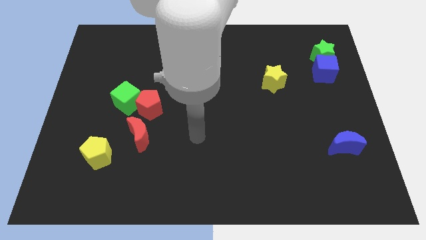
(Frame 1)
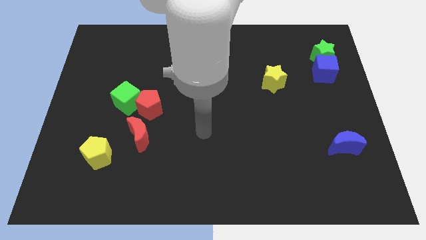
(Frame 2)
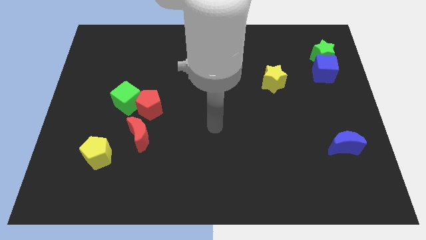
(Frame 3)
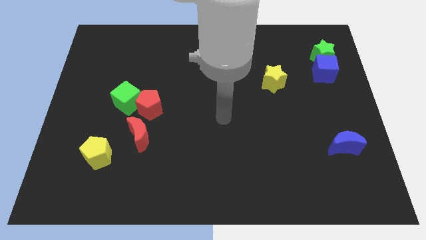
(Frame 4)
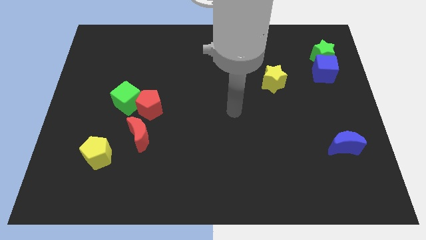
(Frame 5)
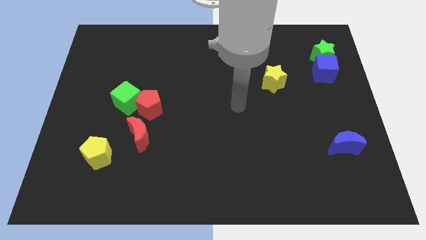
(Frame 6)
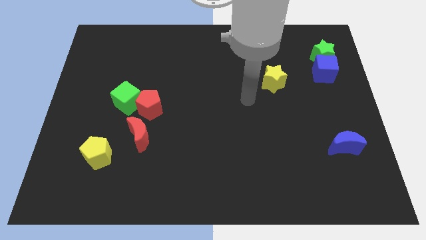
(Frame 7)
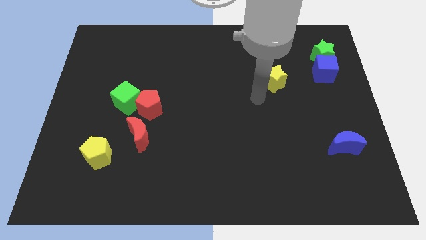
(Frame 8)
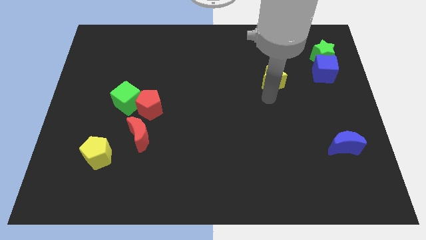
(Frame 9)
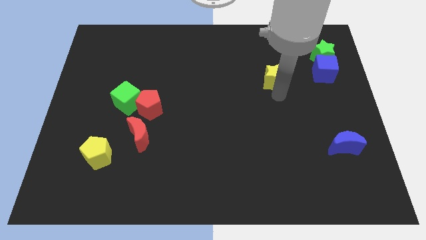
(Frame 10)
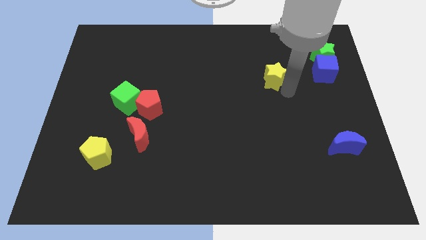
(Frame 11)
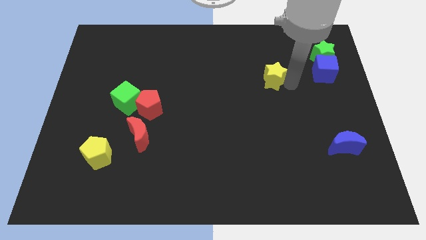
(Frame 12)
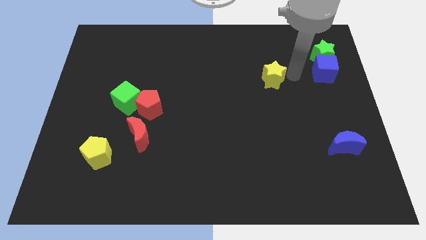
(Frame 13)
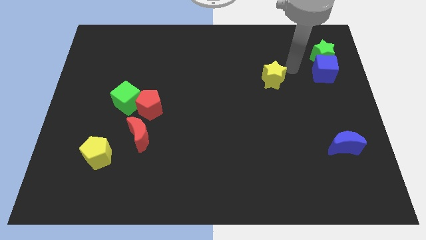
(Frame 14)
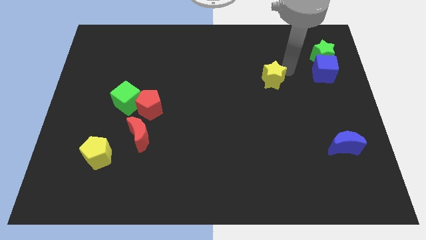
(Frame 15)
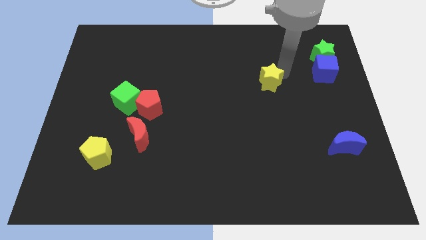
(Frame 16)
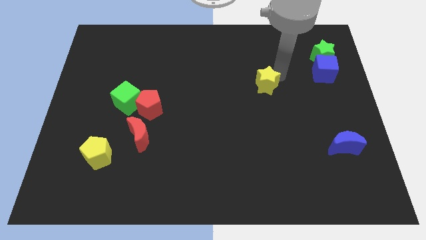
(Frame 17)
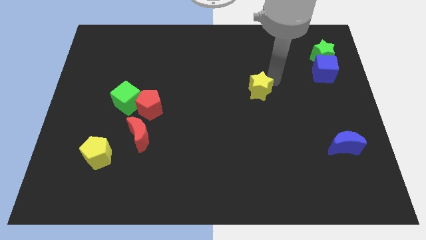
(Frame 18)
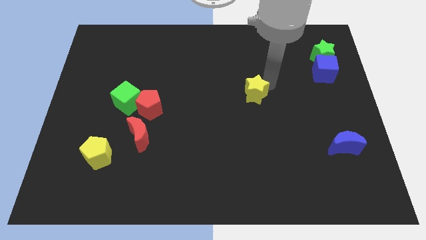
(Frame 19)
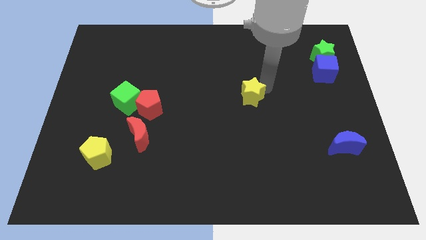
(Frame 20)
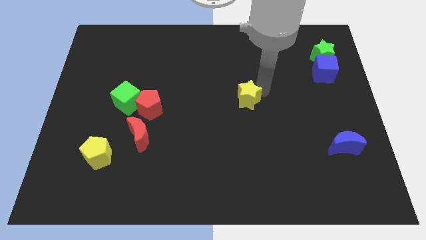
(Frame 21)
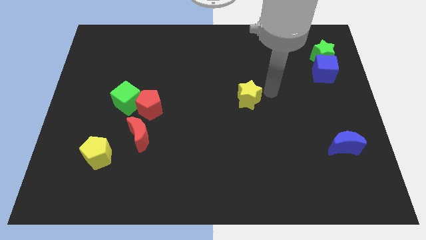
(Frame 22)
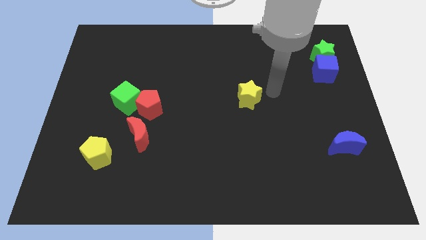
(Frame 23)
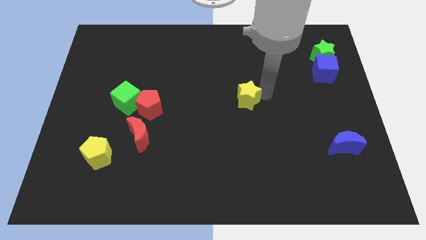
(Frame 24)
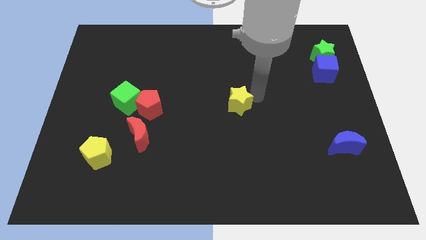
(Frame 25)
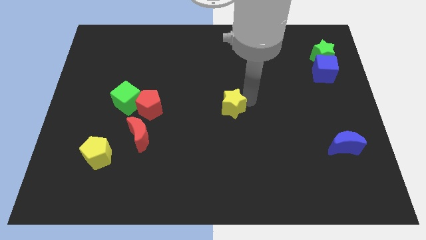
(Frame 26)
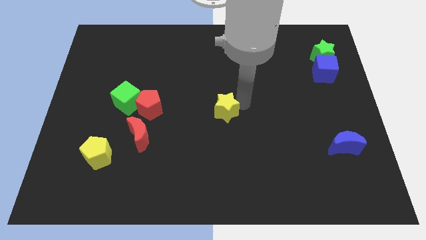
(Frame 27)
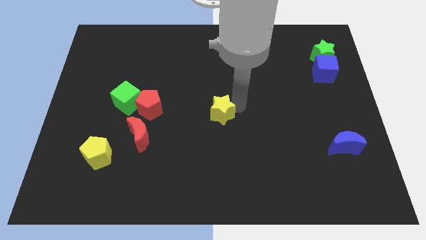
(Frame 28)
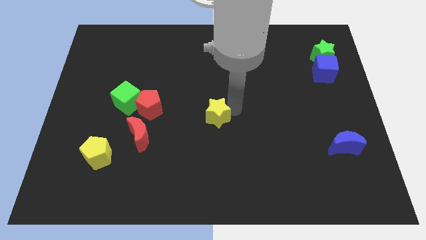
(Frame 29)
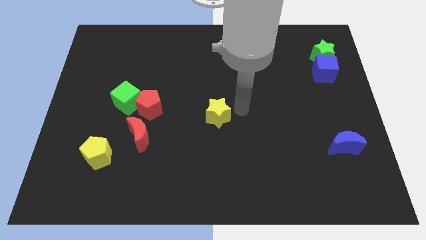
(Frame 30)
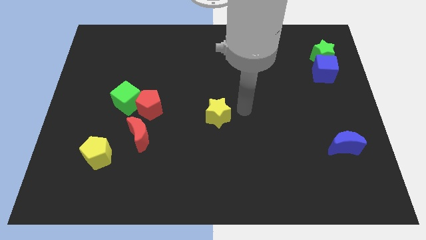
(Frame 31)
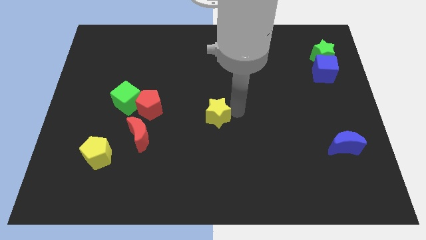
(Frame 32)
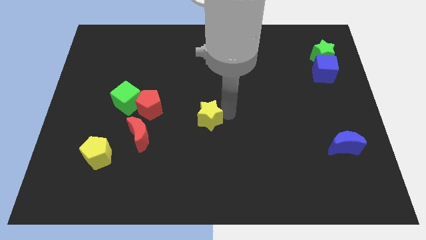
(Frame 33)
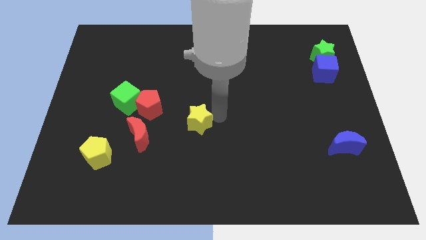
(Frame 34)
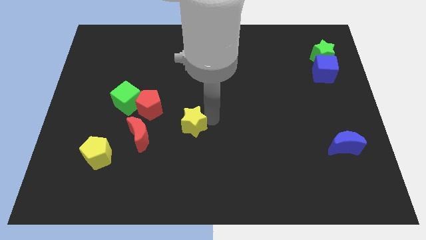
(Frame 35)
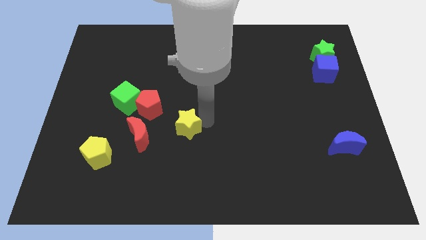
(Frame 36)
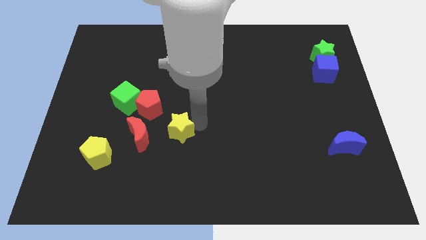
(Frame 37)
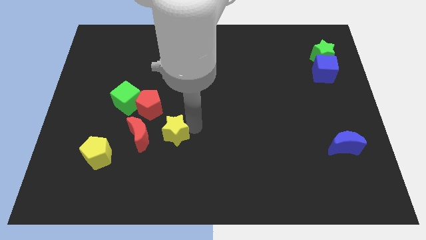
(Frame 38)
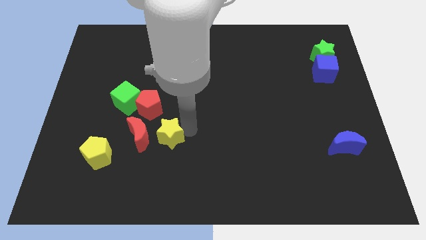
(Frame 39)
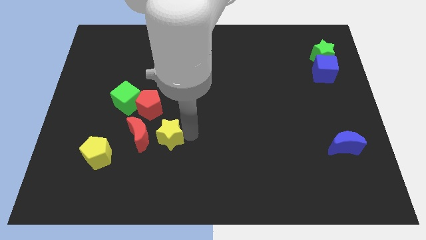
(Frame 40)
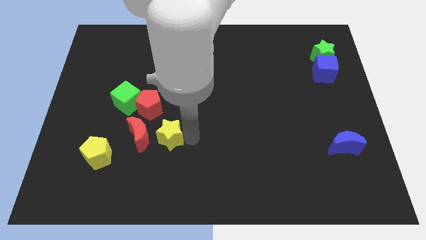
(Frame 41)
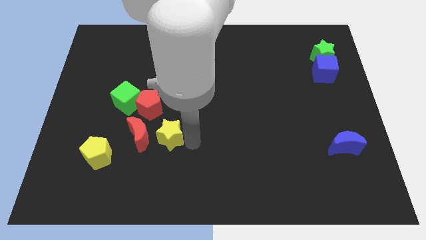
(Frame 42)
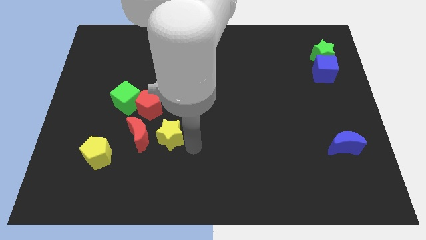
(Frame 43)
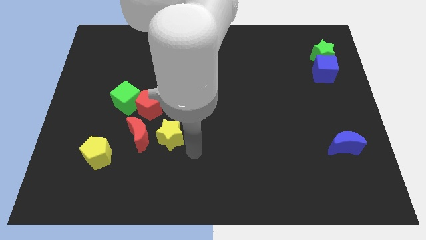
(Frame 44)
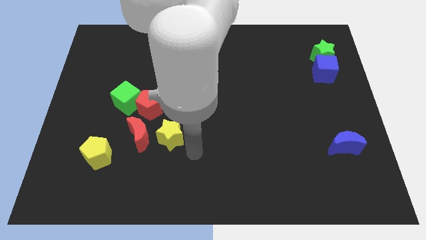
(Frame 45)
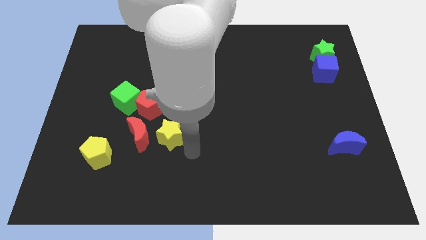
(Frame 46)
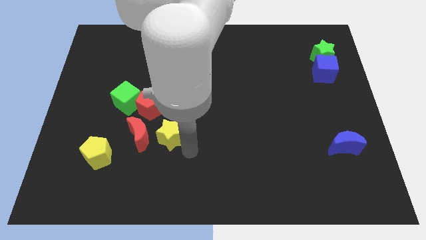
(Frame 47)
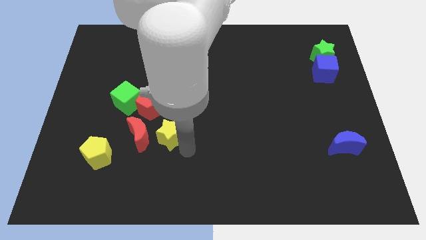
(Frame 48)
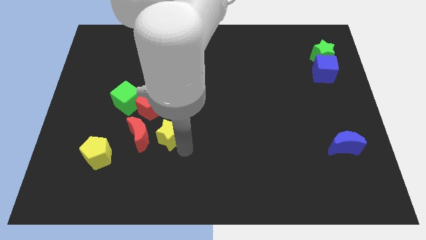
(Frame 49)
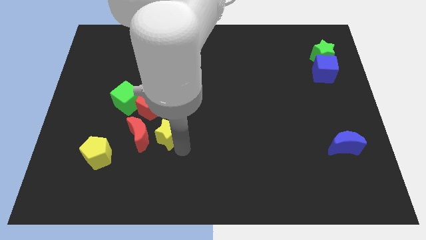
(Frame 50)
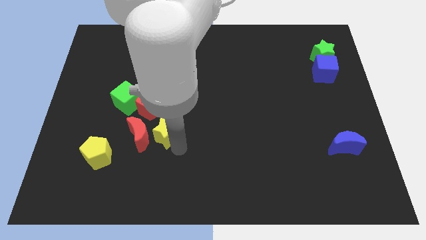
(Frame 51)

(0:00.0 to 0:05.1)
put the yellow star next to the red moon

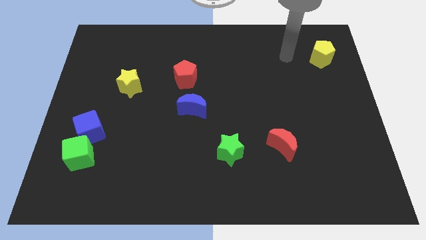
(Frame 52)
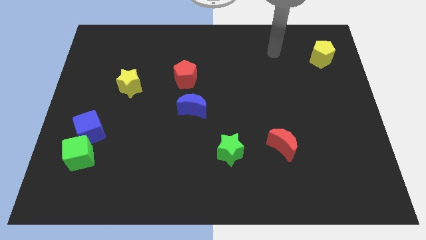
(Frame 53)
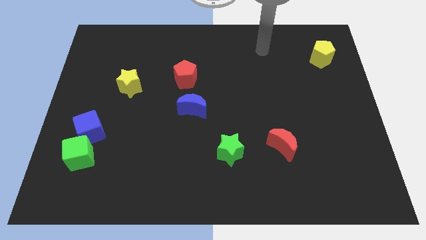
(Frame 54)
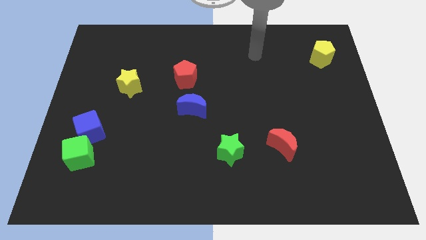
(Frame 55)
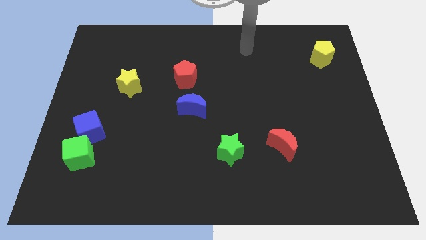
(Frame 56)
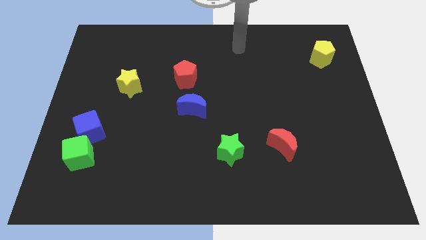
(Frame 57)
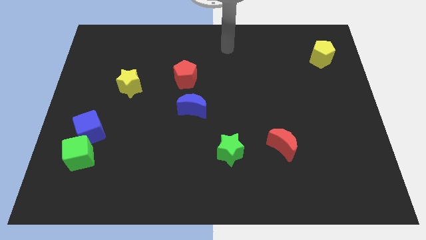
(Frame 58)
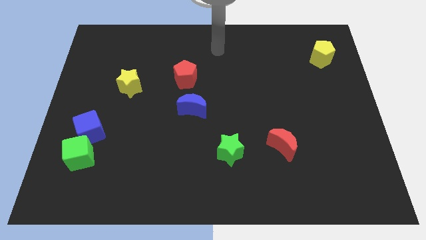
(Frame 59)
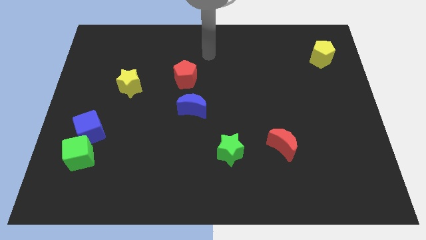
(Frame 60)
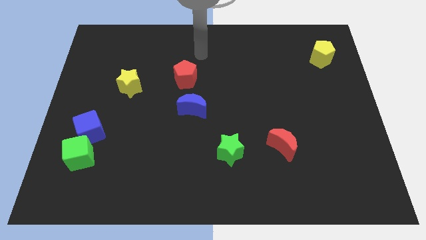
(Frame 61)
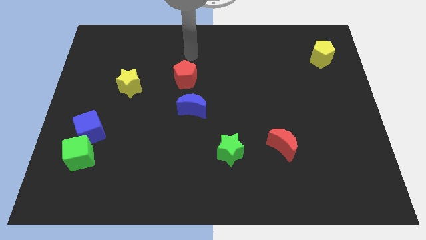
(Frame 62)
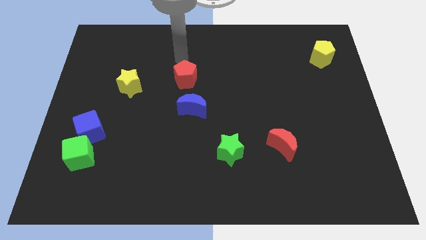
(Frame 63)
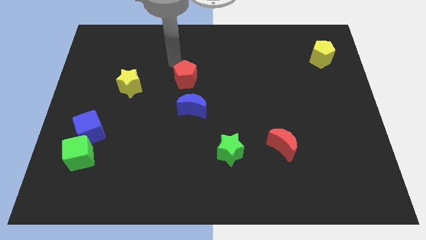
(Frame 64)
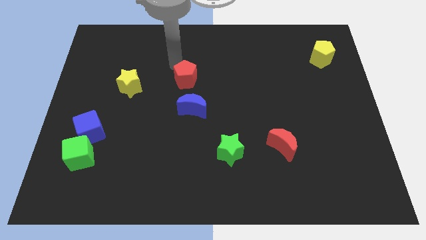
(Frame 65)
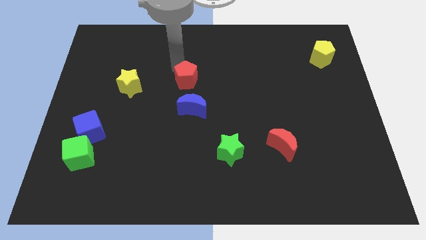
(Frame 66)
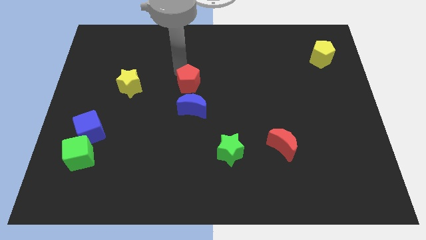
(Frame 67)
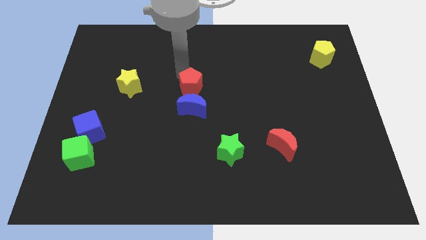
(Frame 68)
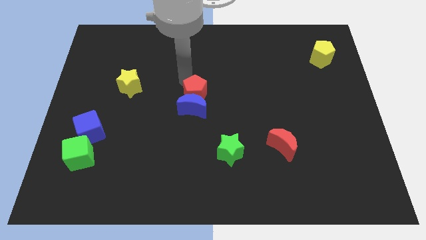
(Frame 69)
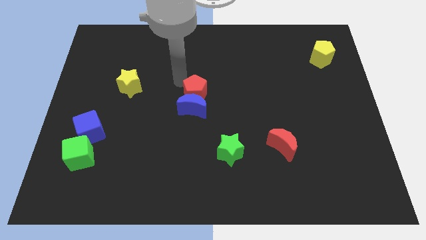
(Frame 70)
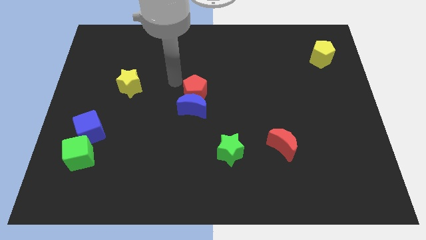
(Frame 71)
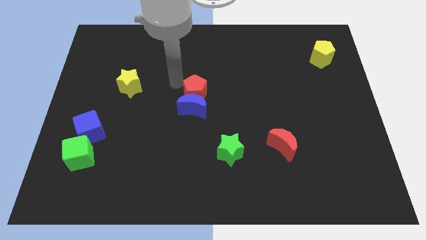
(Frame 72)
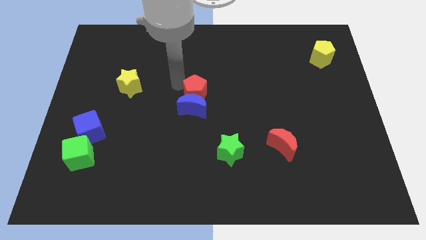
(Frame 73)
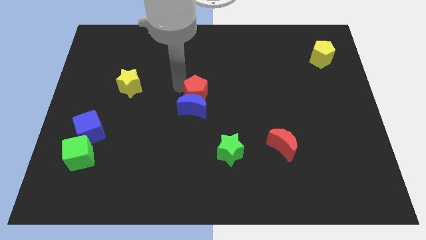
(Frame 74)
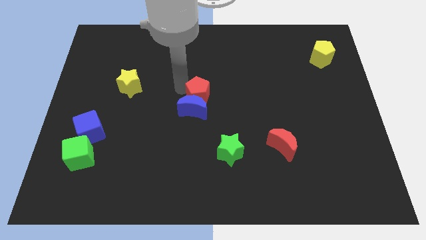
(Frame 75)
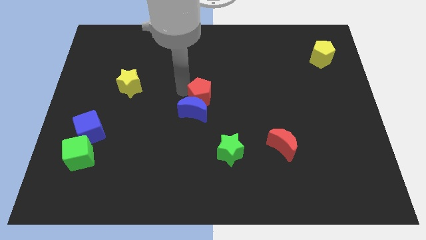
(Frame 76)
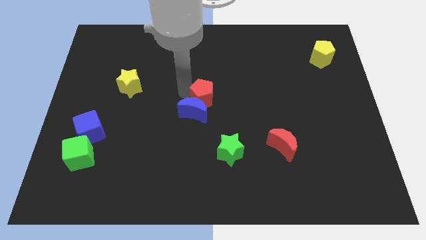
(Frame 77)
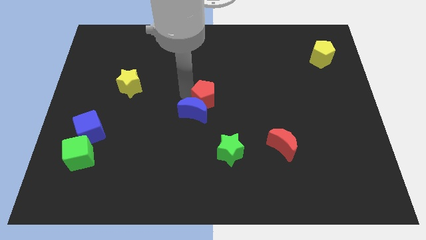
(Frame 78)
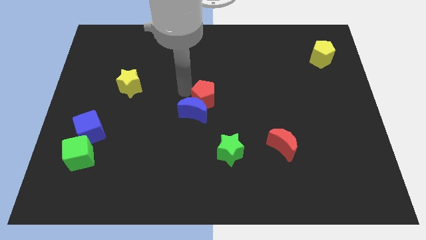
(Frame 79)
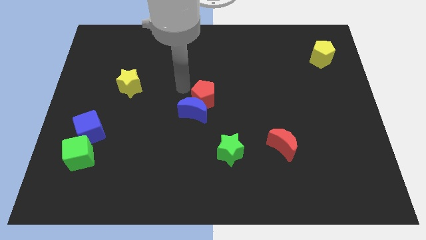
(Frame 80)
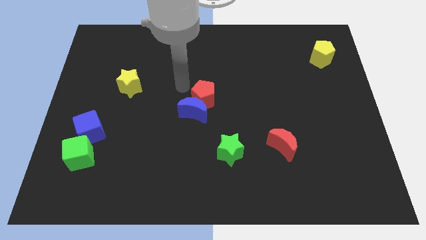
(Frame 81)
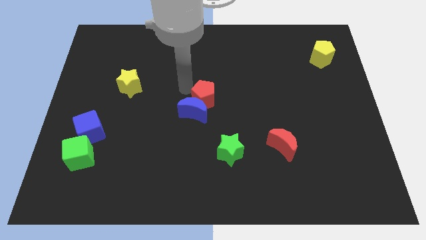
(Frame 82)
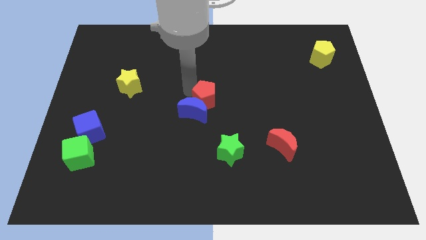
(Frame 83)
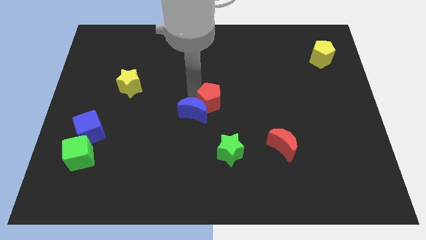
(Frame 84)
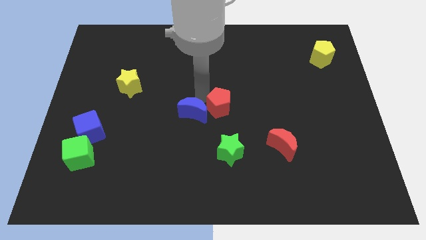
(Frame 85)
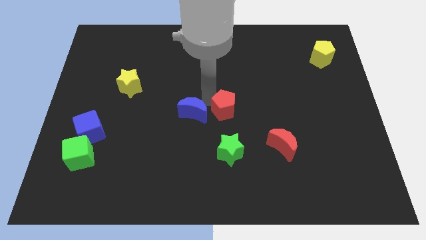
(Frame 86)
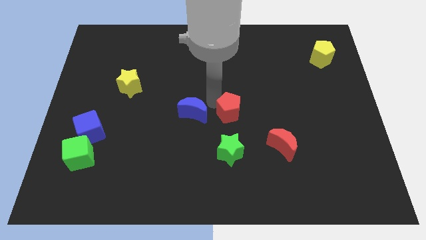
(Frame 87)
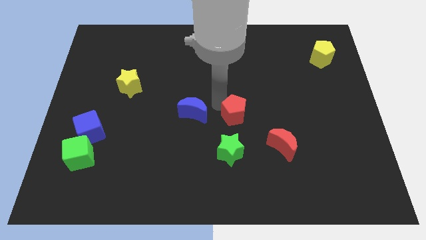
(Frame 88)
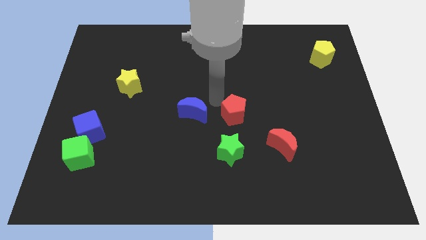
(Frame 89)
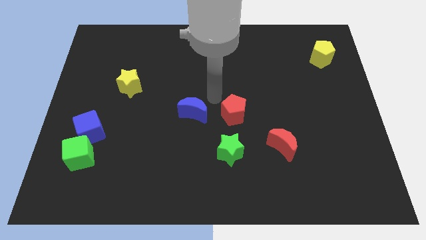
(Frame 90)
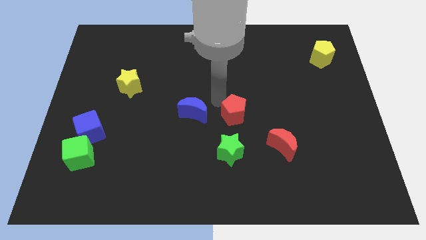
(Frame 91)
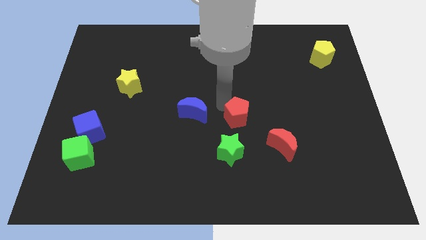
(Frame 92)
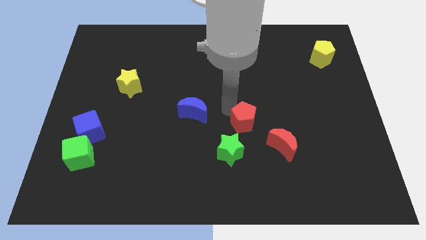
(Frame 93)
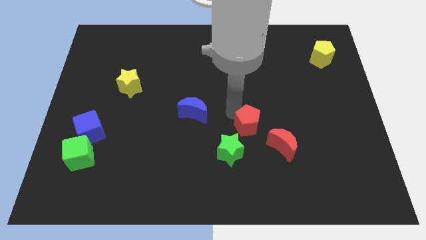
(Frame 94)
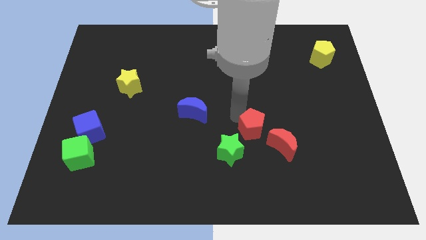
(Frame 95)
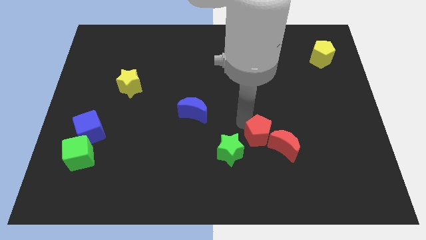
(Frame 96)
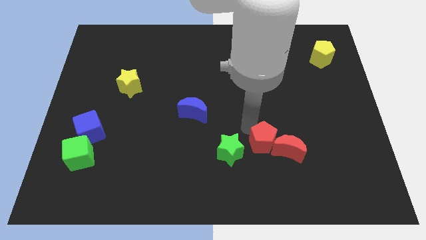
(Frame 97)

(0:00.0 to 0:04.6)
move the red pentagon next to the red moon
